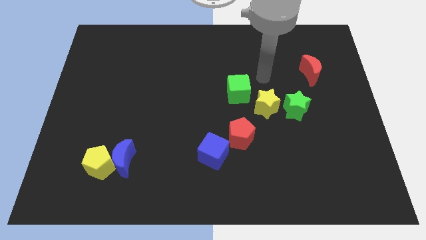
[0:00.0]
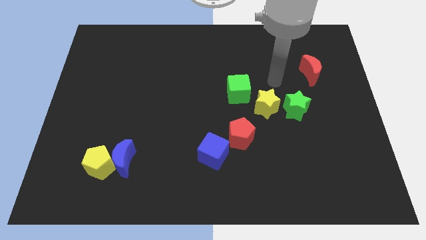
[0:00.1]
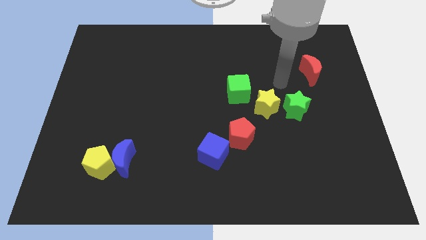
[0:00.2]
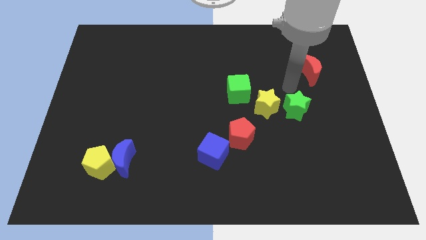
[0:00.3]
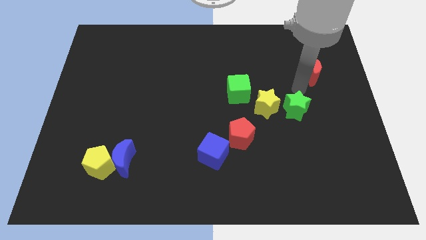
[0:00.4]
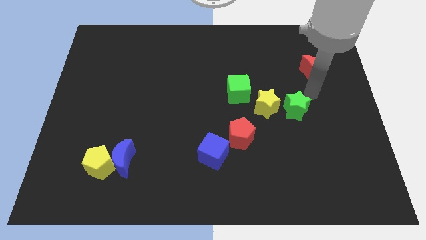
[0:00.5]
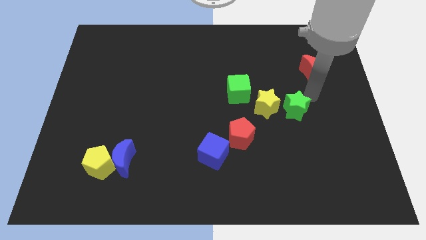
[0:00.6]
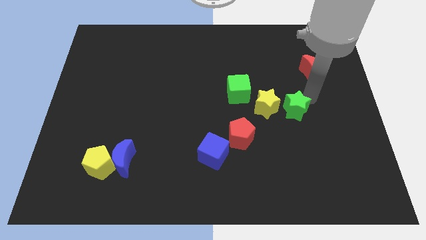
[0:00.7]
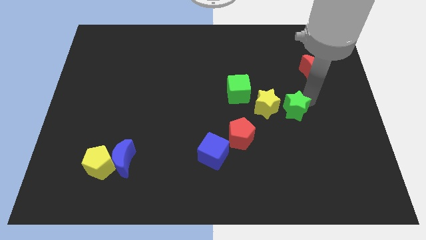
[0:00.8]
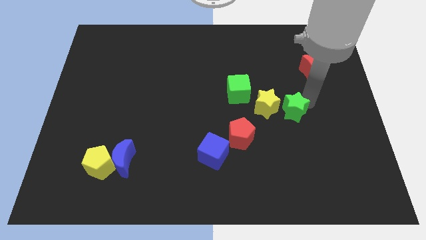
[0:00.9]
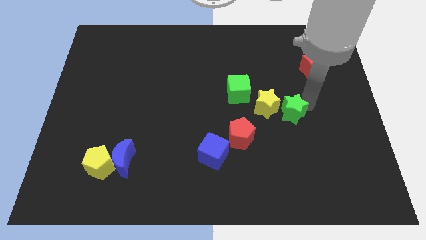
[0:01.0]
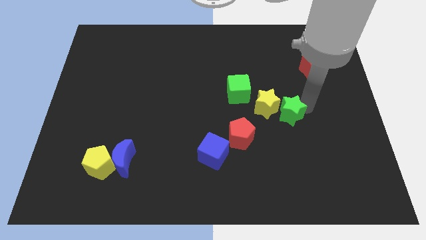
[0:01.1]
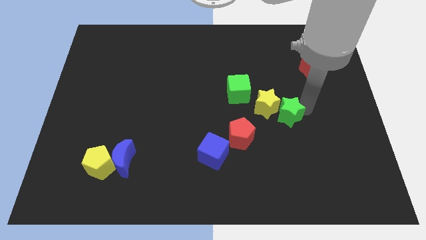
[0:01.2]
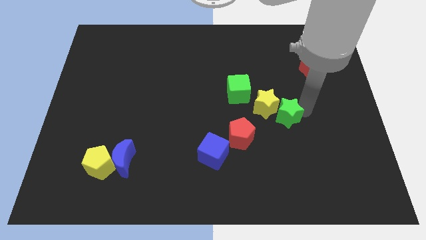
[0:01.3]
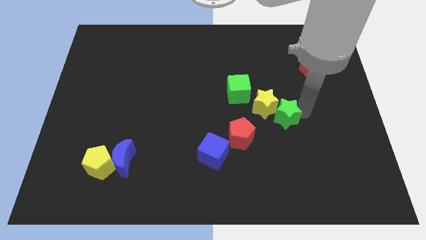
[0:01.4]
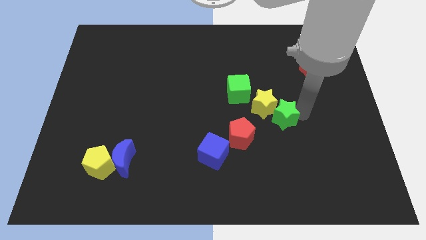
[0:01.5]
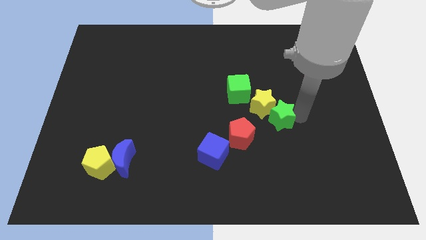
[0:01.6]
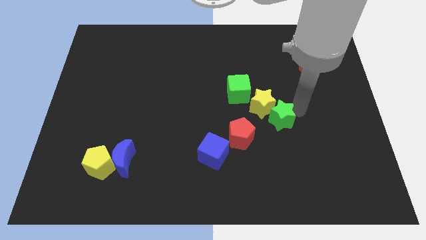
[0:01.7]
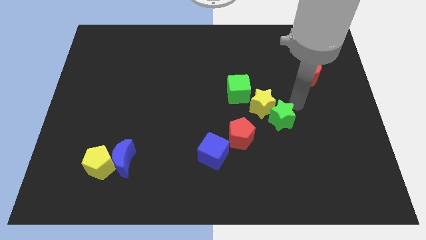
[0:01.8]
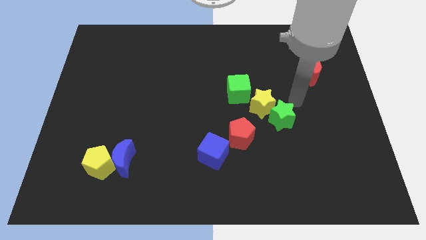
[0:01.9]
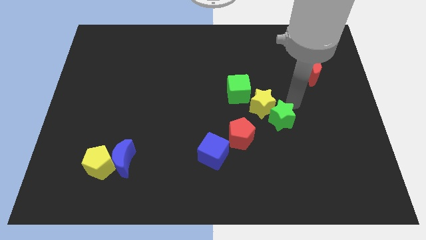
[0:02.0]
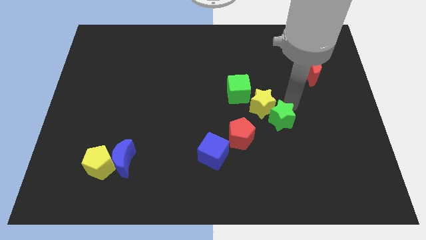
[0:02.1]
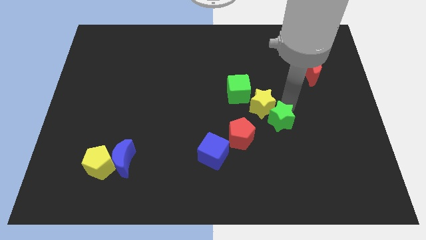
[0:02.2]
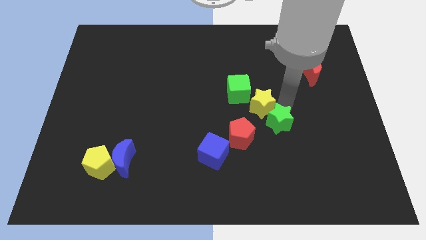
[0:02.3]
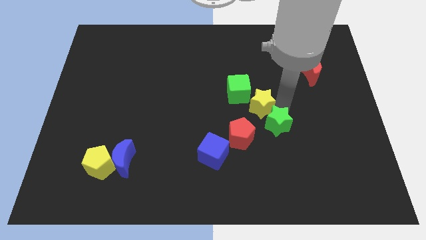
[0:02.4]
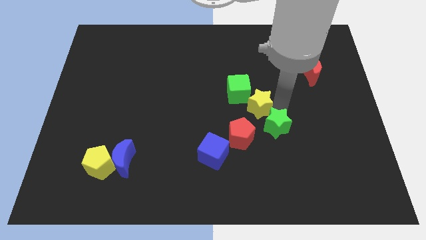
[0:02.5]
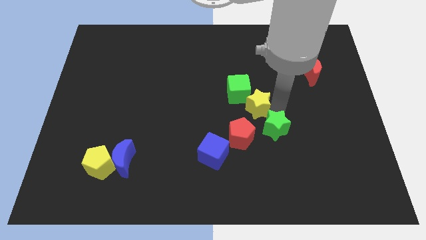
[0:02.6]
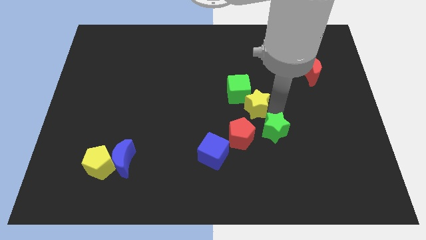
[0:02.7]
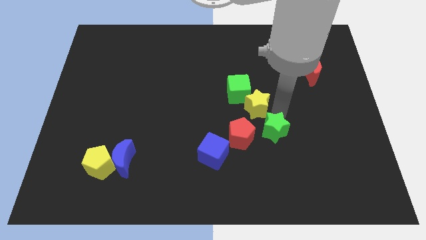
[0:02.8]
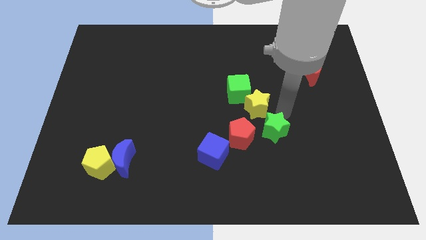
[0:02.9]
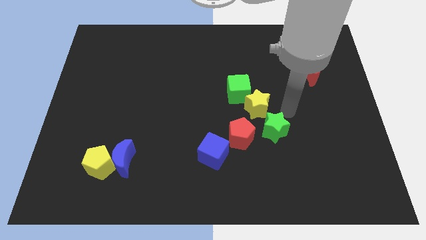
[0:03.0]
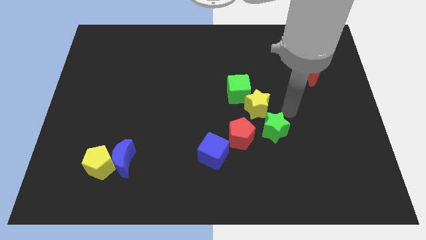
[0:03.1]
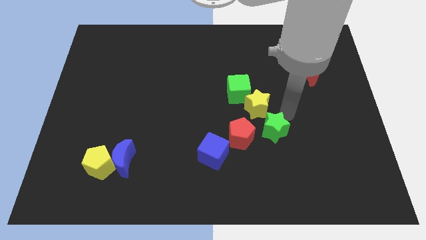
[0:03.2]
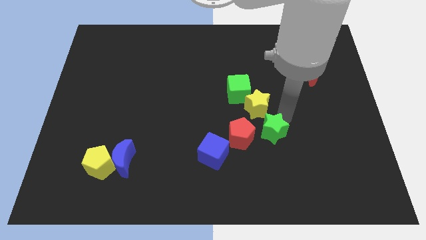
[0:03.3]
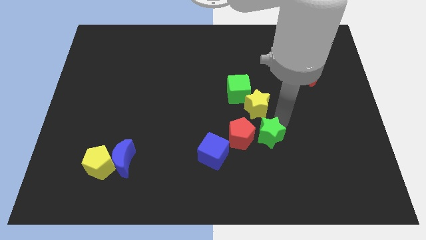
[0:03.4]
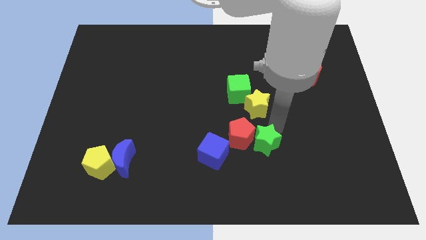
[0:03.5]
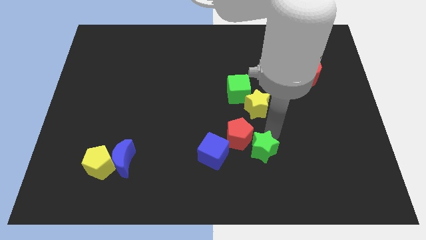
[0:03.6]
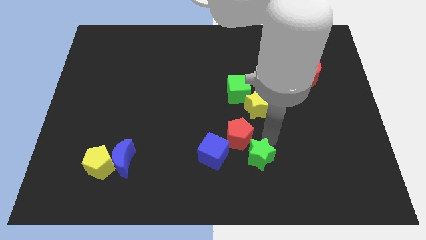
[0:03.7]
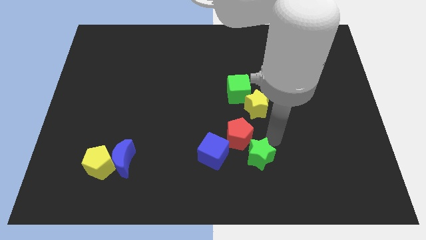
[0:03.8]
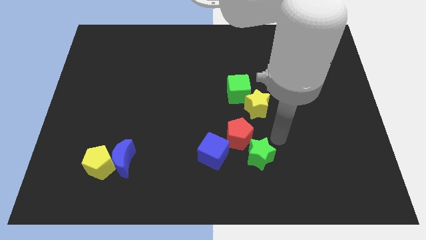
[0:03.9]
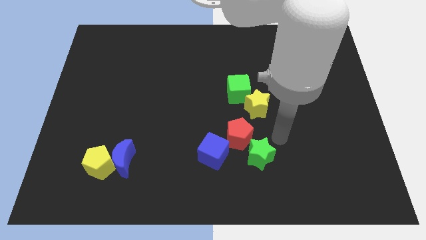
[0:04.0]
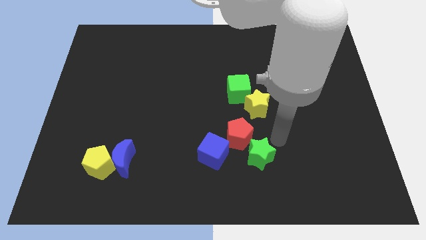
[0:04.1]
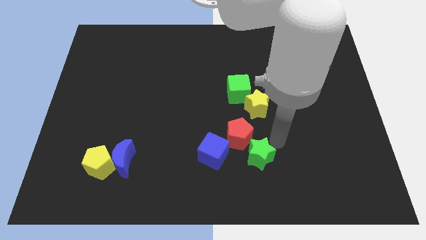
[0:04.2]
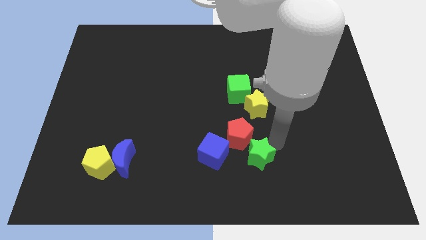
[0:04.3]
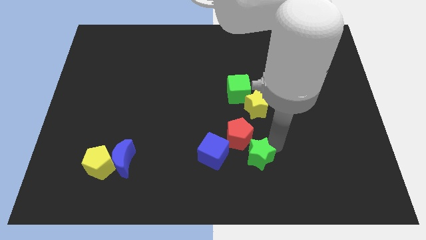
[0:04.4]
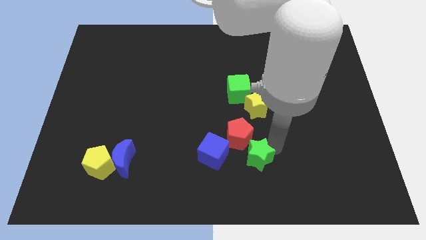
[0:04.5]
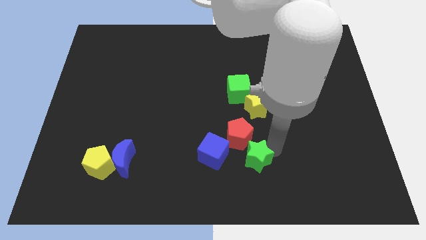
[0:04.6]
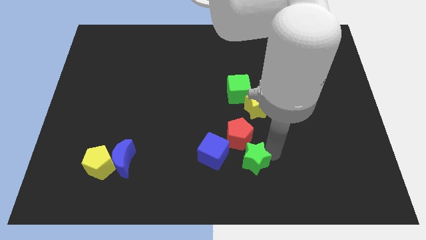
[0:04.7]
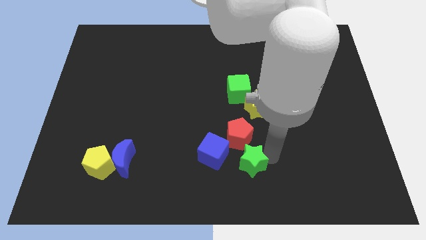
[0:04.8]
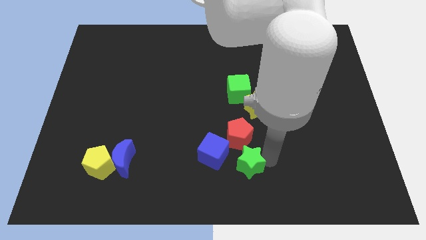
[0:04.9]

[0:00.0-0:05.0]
put the green star to the bottom side

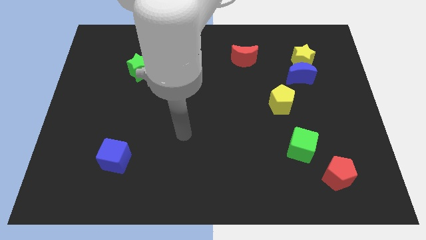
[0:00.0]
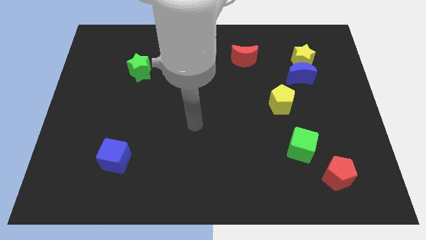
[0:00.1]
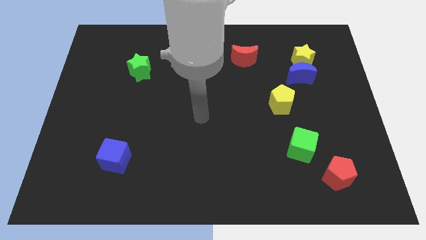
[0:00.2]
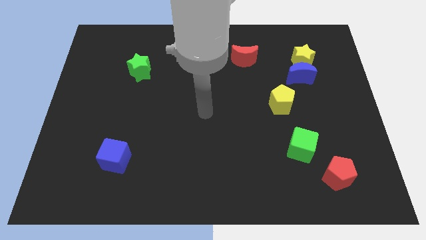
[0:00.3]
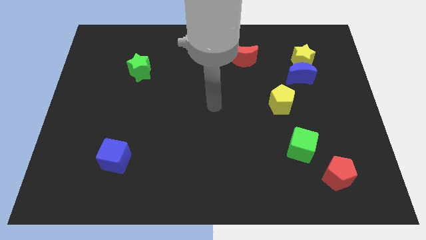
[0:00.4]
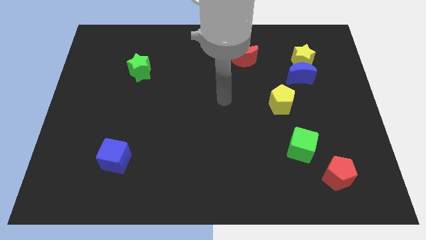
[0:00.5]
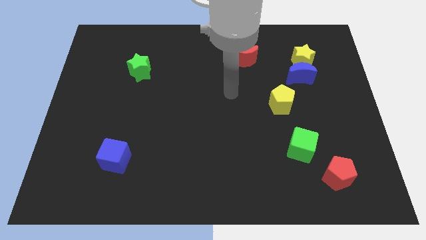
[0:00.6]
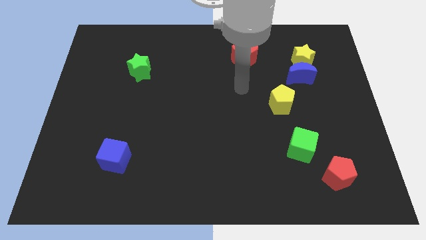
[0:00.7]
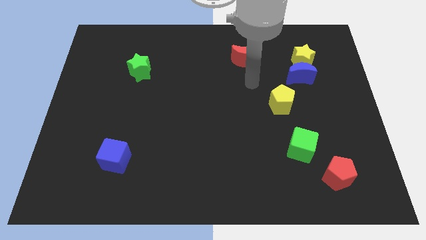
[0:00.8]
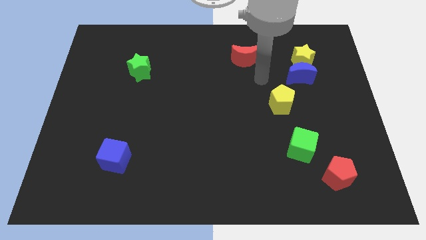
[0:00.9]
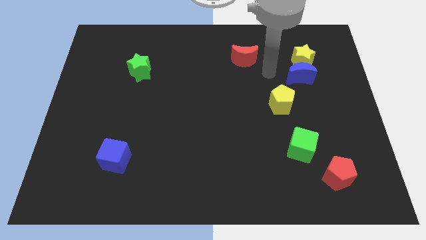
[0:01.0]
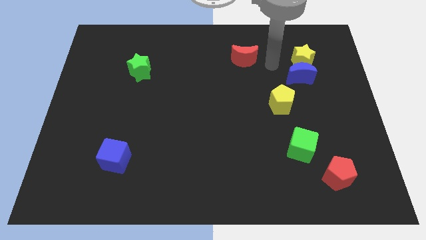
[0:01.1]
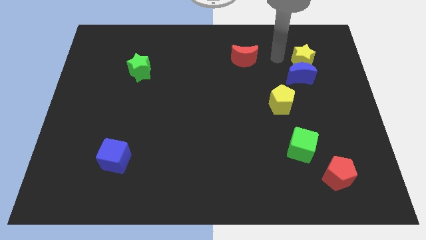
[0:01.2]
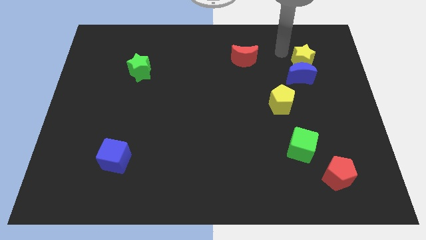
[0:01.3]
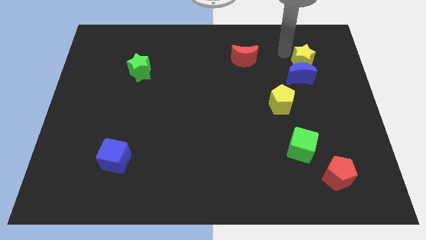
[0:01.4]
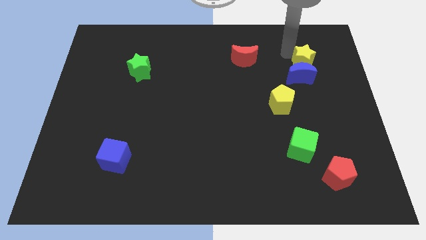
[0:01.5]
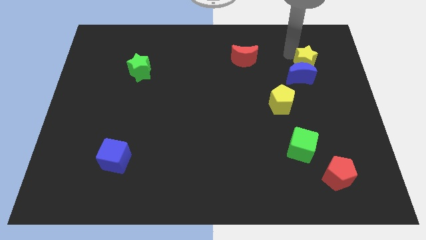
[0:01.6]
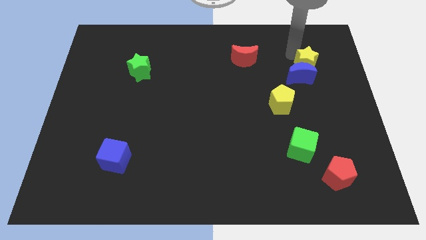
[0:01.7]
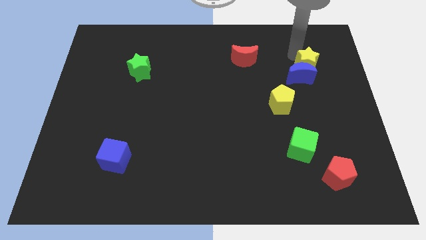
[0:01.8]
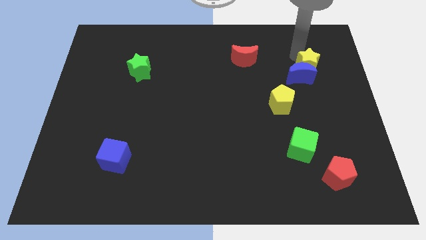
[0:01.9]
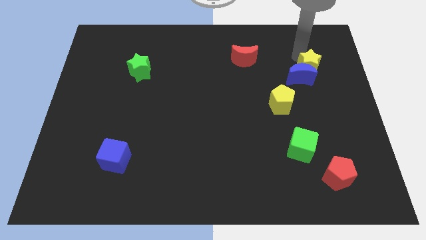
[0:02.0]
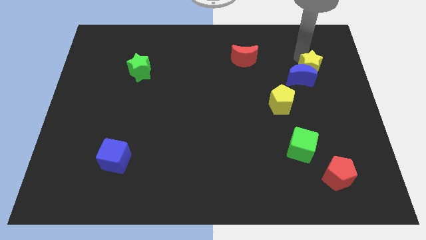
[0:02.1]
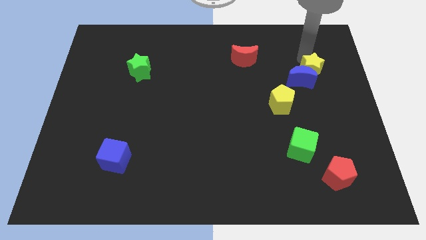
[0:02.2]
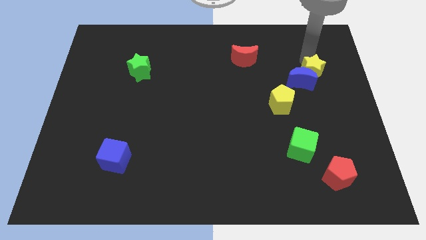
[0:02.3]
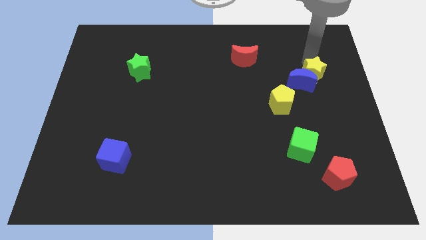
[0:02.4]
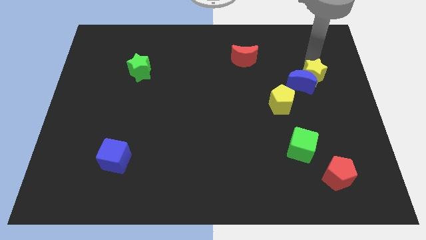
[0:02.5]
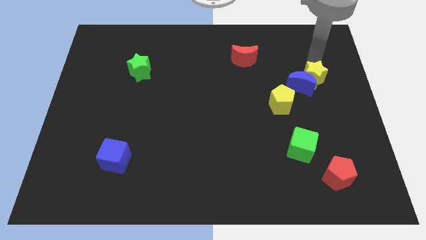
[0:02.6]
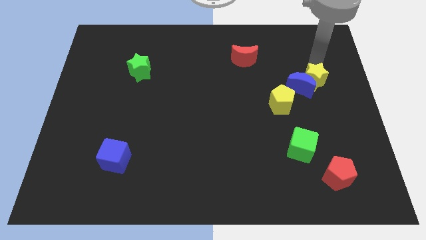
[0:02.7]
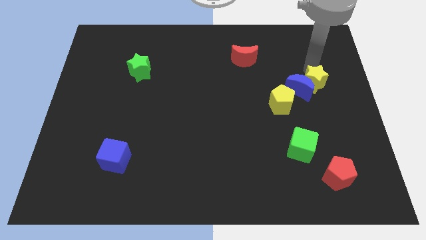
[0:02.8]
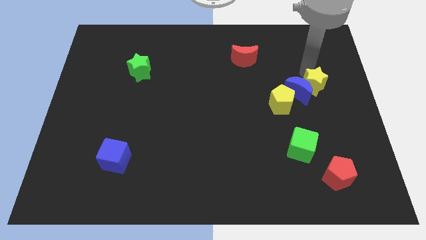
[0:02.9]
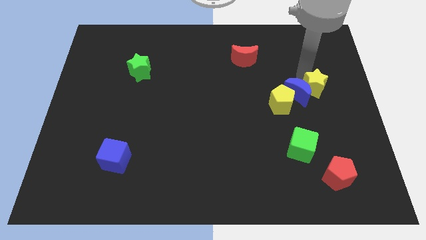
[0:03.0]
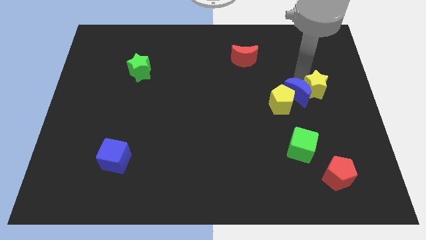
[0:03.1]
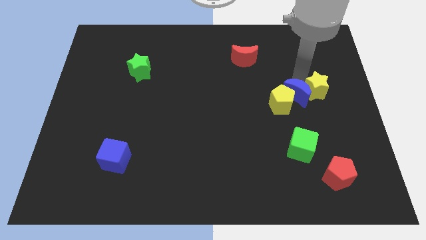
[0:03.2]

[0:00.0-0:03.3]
slide the yellow star to the right side
